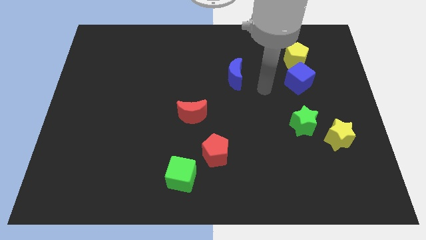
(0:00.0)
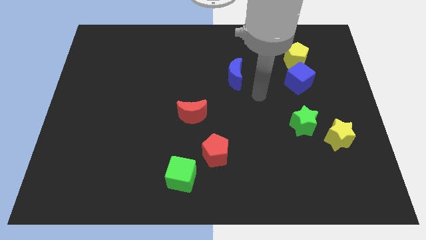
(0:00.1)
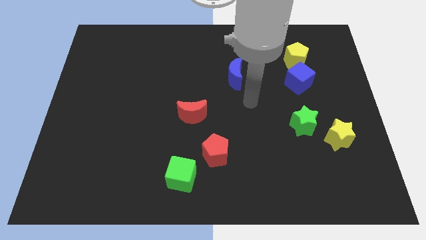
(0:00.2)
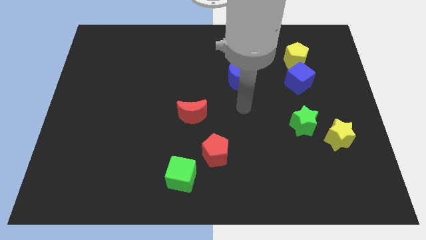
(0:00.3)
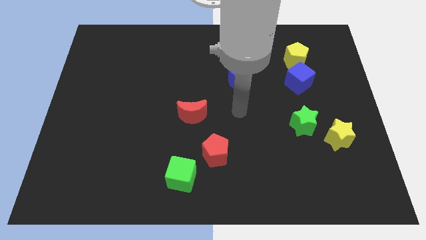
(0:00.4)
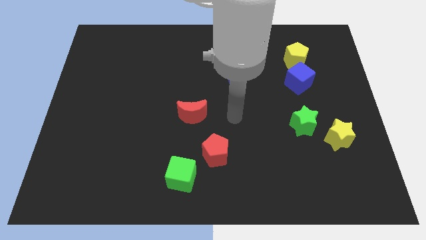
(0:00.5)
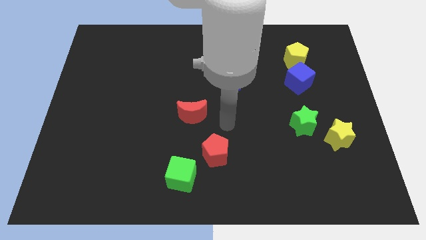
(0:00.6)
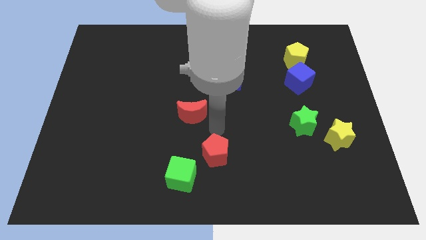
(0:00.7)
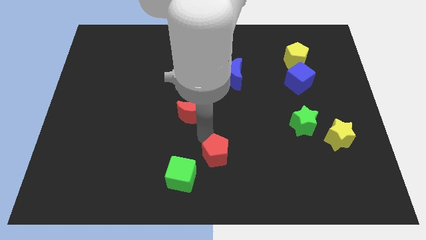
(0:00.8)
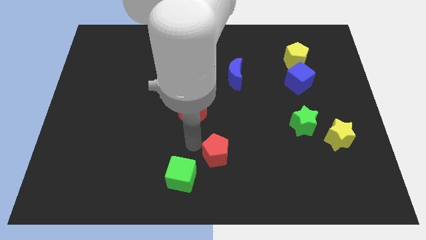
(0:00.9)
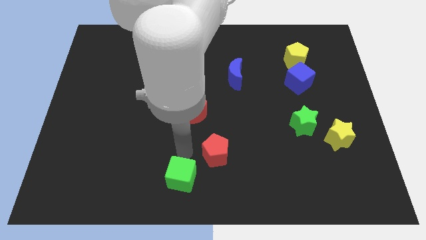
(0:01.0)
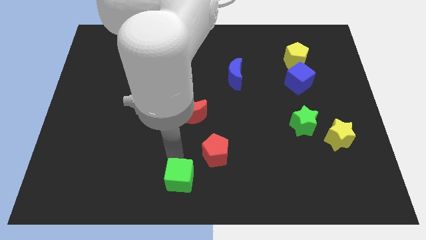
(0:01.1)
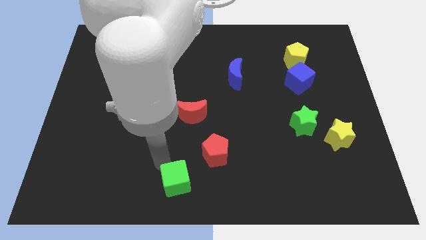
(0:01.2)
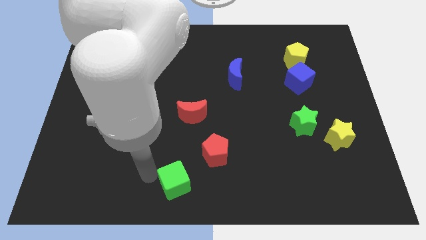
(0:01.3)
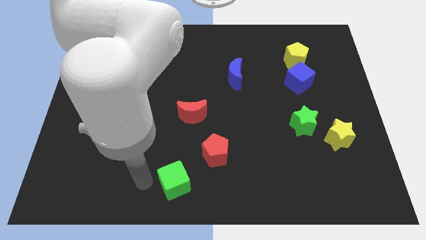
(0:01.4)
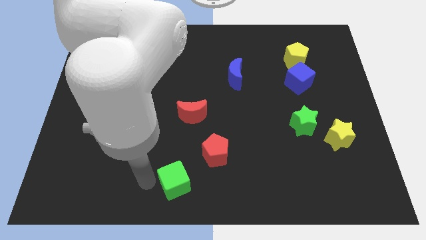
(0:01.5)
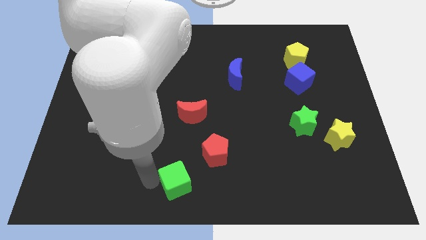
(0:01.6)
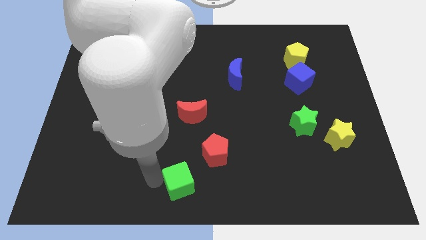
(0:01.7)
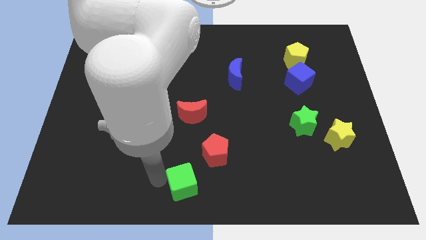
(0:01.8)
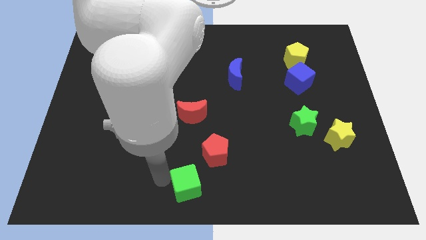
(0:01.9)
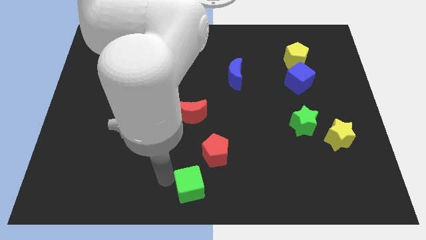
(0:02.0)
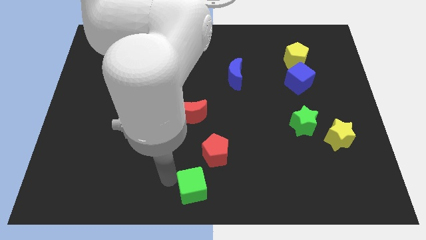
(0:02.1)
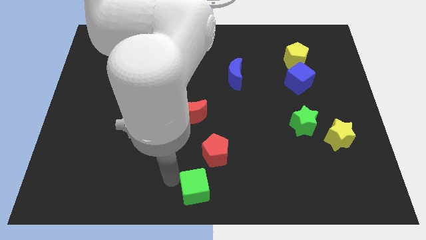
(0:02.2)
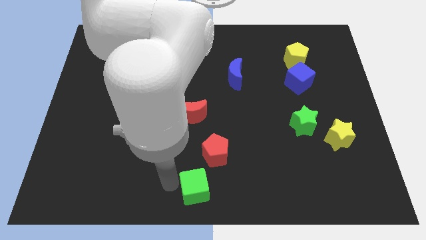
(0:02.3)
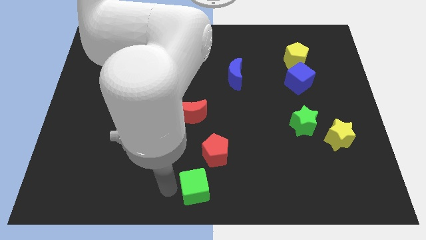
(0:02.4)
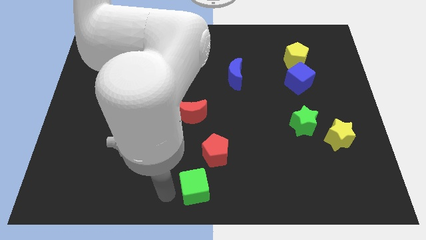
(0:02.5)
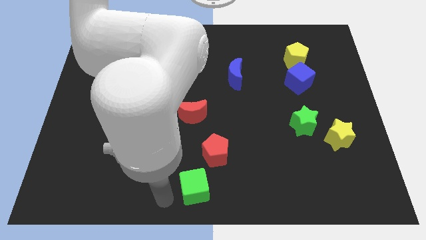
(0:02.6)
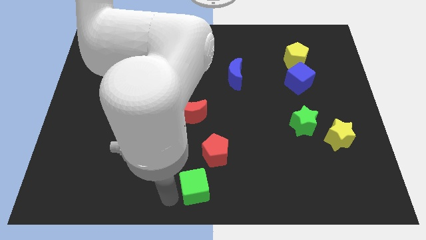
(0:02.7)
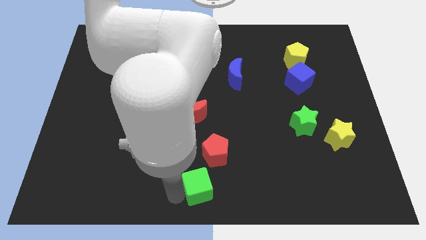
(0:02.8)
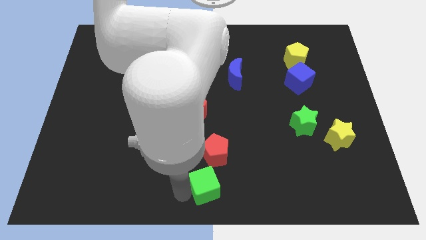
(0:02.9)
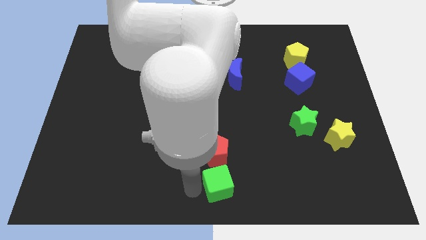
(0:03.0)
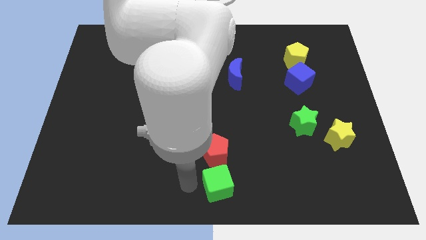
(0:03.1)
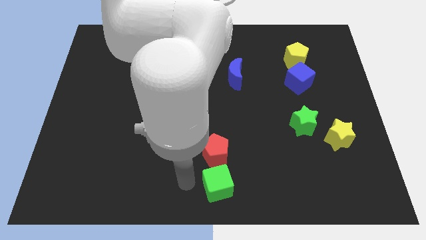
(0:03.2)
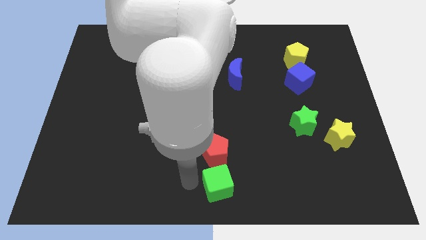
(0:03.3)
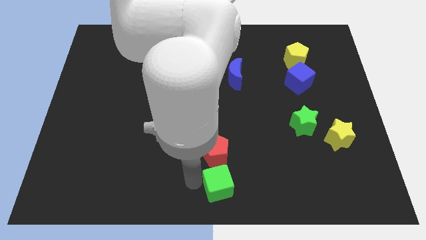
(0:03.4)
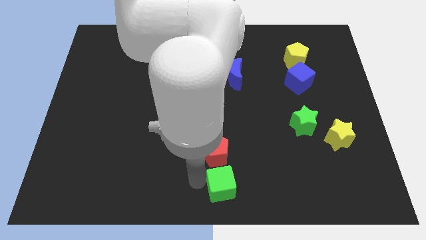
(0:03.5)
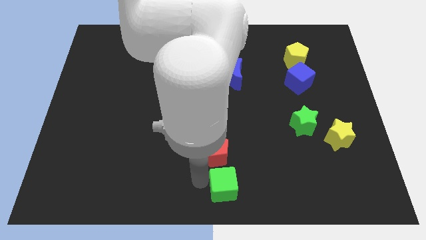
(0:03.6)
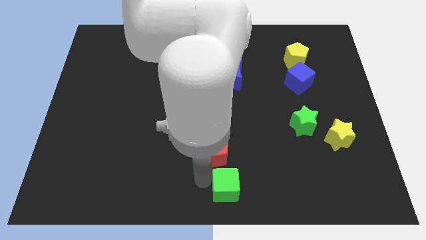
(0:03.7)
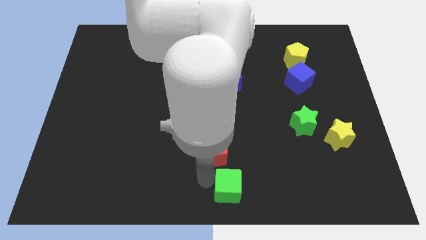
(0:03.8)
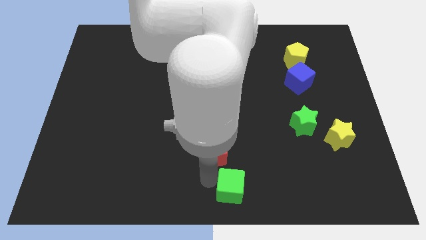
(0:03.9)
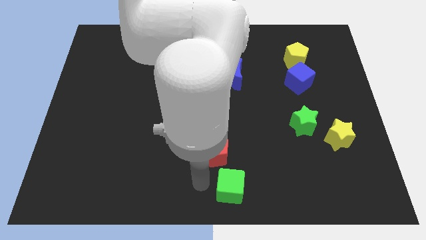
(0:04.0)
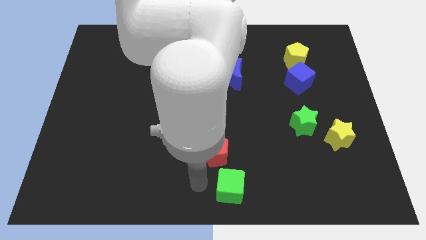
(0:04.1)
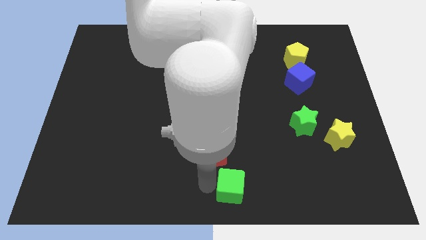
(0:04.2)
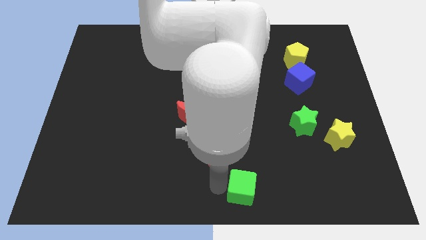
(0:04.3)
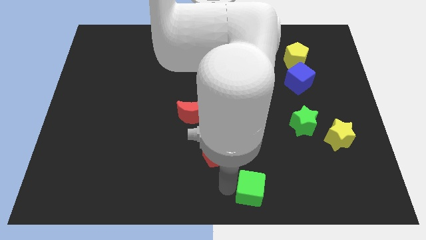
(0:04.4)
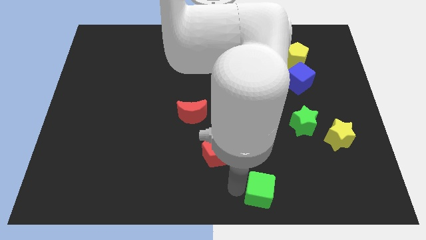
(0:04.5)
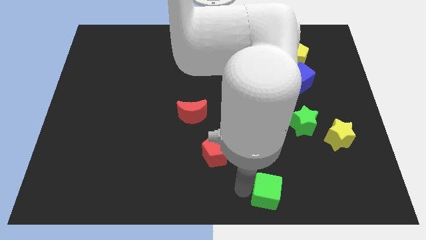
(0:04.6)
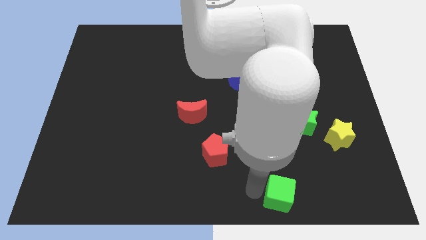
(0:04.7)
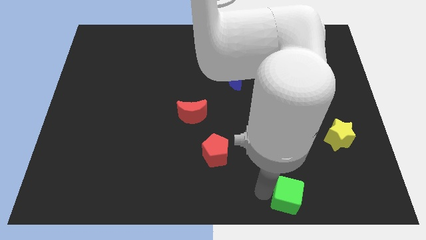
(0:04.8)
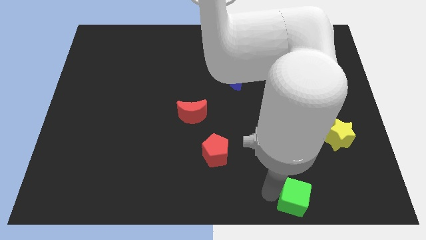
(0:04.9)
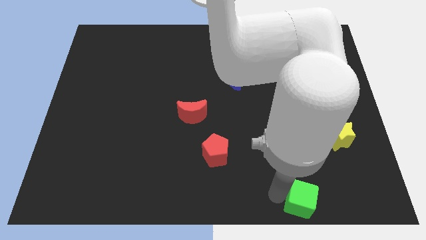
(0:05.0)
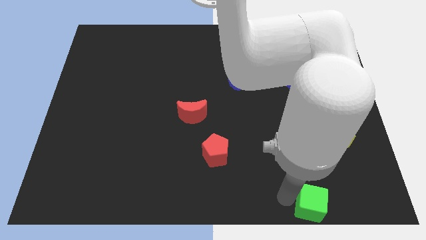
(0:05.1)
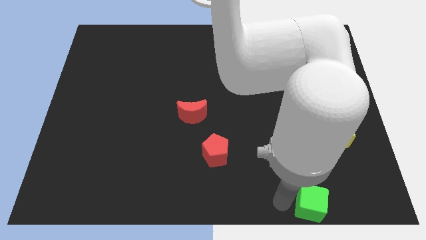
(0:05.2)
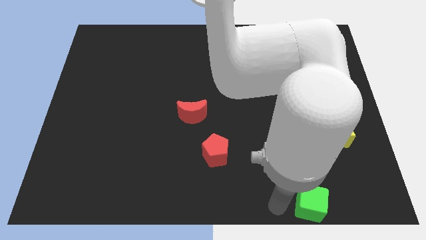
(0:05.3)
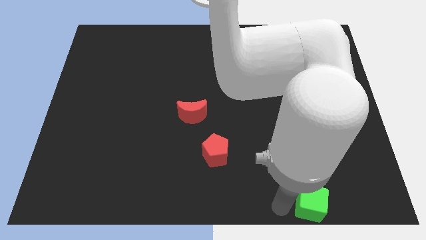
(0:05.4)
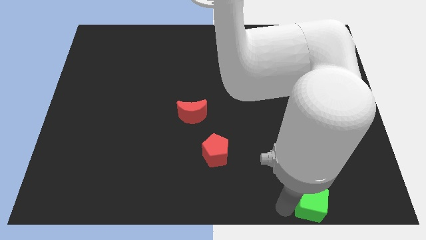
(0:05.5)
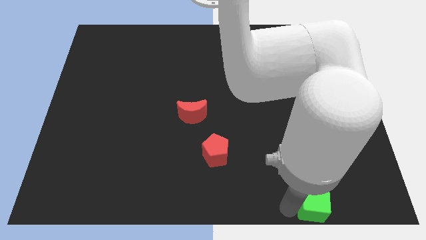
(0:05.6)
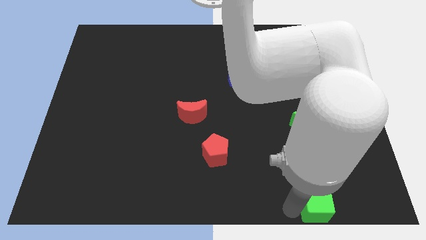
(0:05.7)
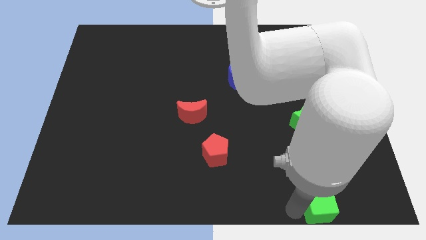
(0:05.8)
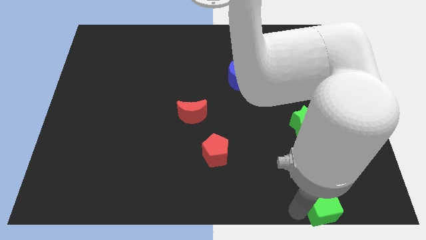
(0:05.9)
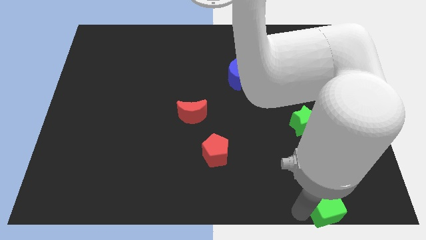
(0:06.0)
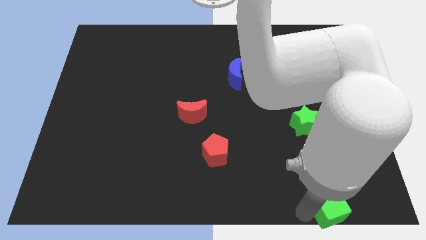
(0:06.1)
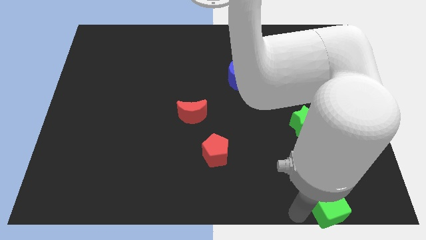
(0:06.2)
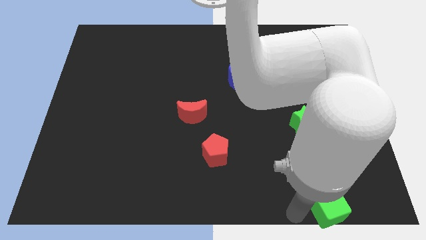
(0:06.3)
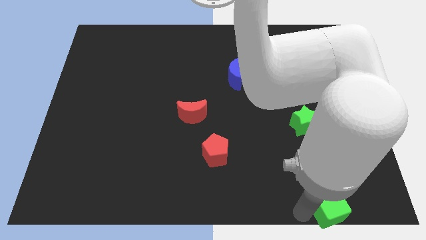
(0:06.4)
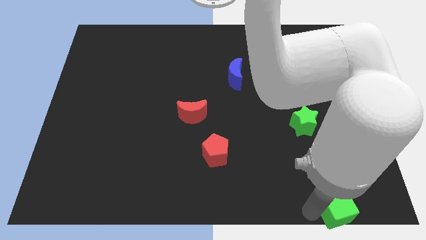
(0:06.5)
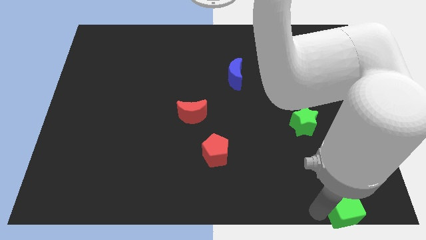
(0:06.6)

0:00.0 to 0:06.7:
move the green cube to the bottom right of the board
